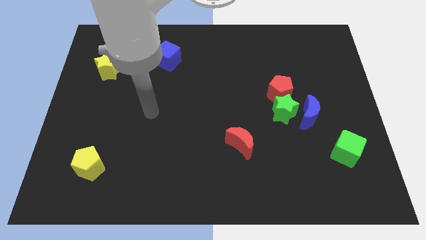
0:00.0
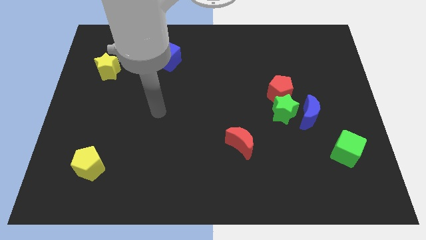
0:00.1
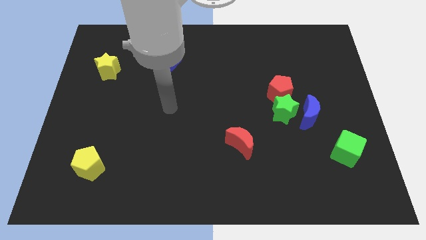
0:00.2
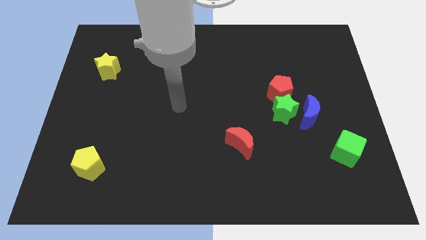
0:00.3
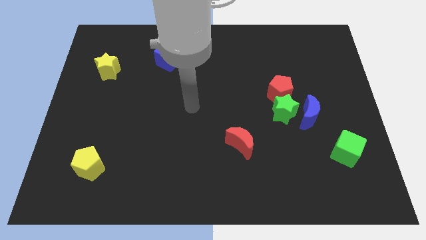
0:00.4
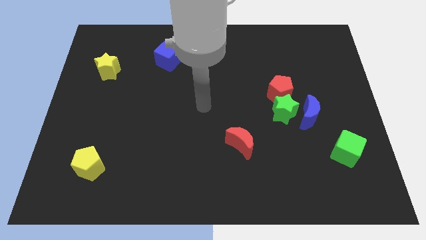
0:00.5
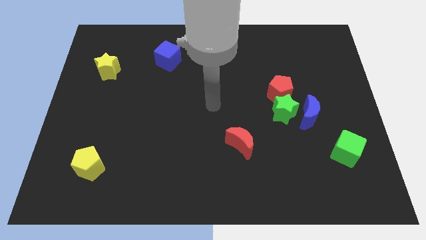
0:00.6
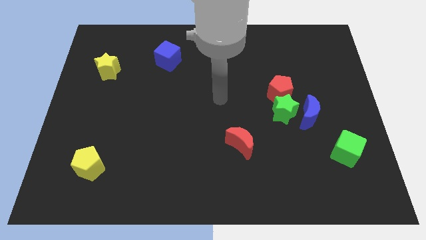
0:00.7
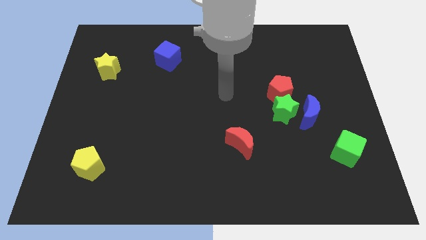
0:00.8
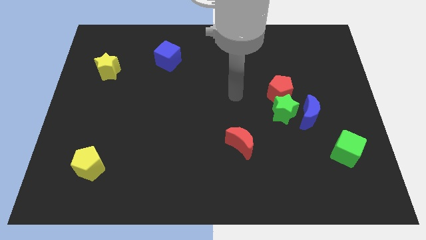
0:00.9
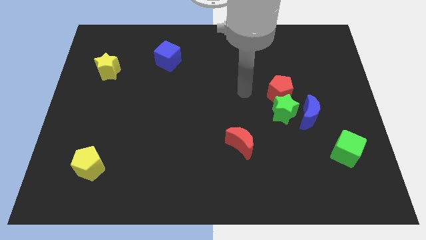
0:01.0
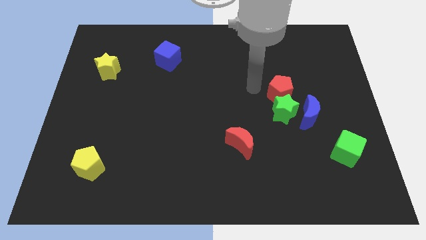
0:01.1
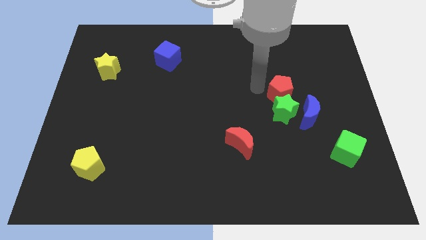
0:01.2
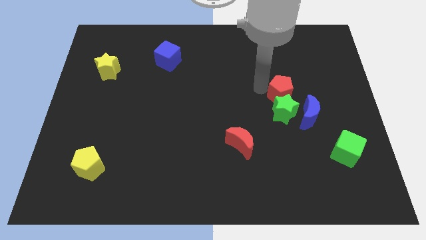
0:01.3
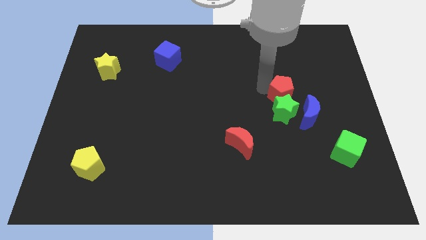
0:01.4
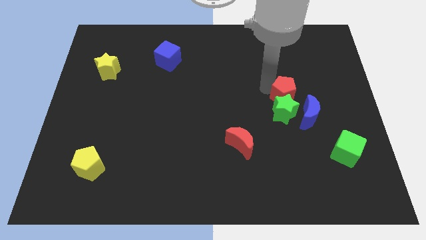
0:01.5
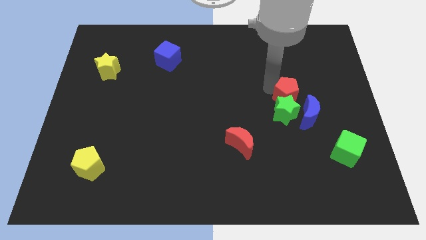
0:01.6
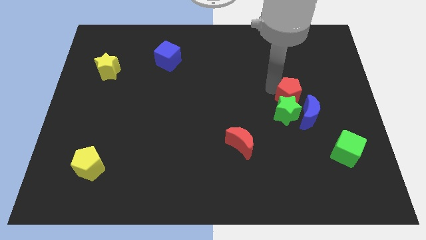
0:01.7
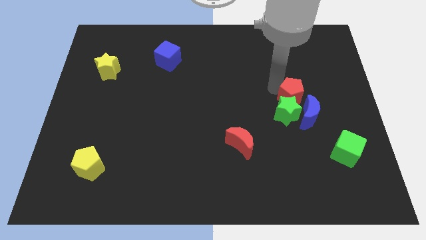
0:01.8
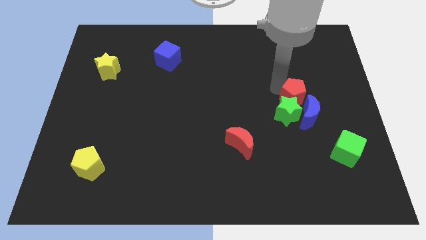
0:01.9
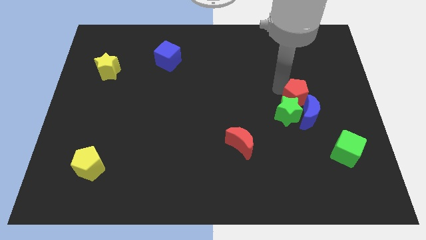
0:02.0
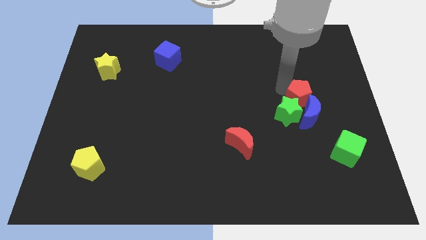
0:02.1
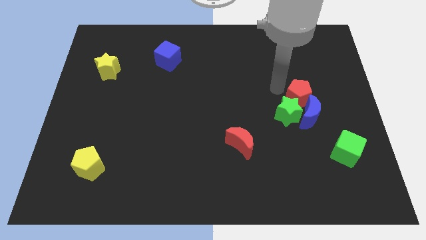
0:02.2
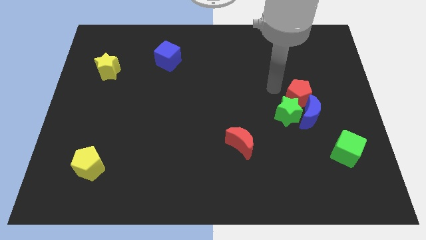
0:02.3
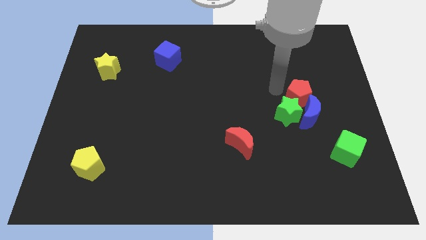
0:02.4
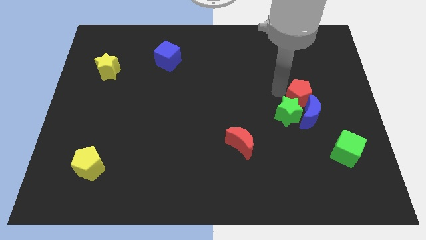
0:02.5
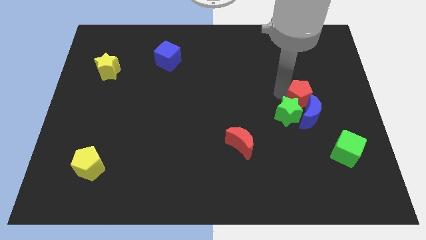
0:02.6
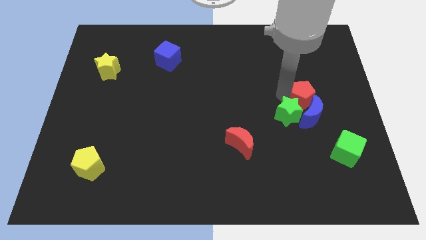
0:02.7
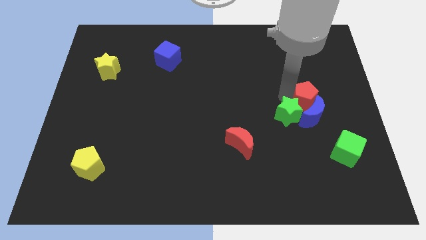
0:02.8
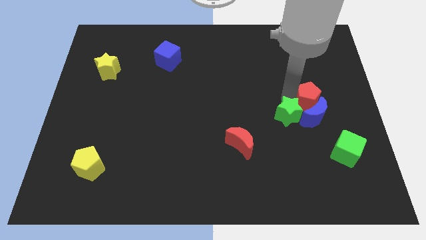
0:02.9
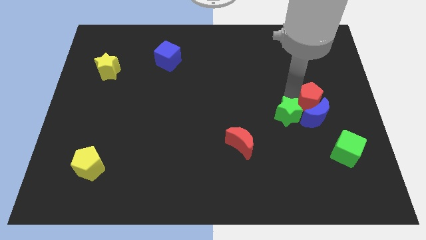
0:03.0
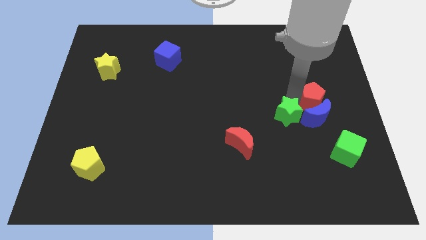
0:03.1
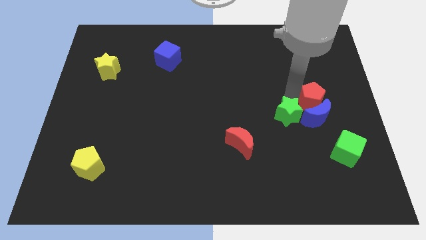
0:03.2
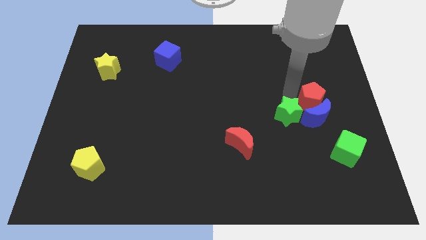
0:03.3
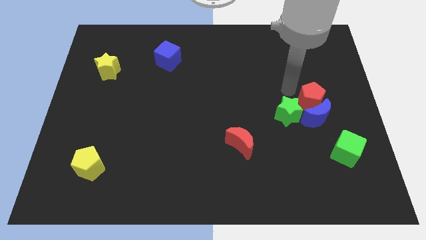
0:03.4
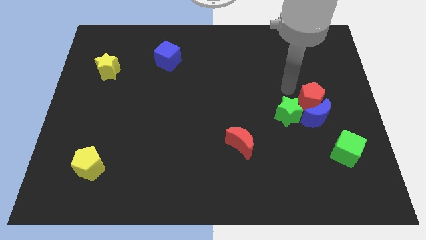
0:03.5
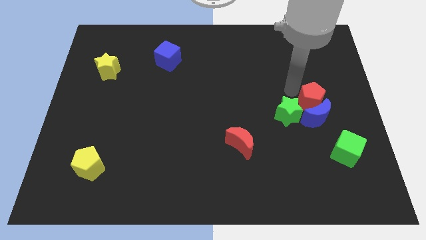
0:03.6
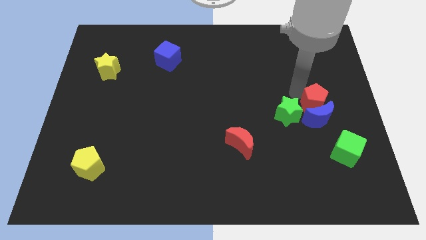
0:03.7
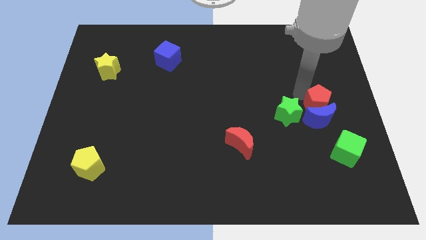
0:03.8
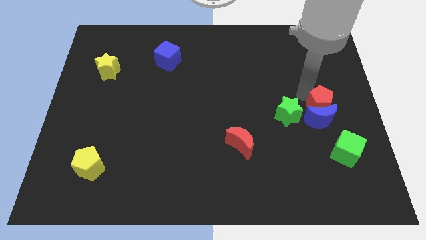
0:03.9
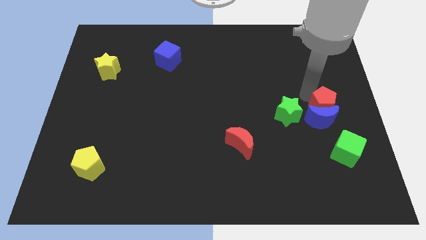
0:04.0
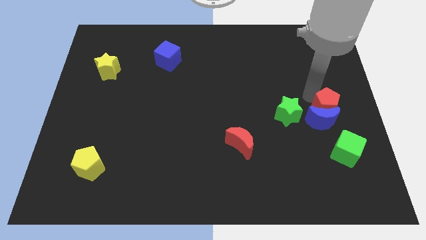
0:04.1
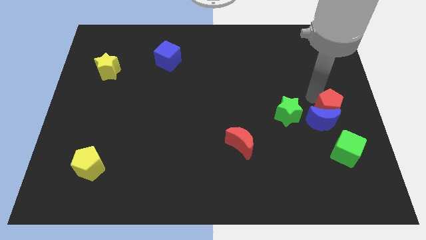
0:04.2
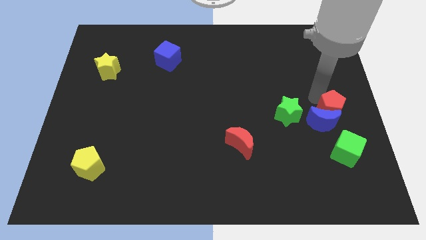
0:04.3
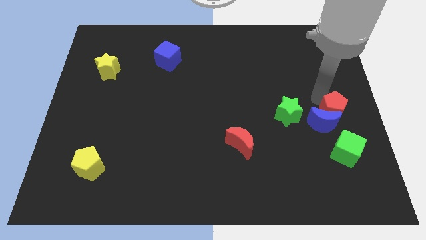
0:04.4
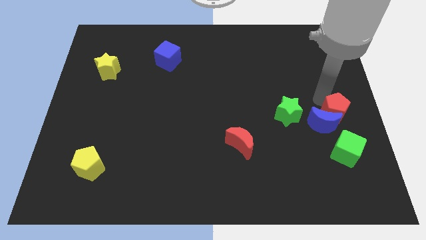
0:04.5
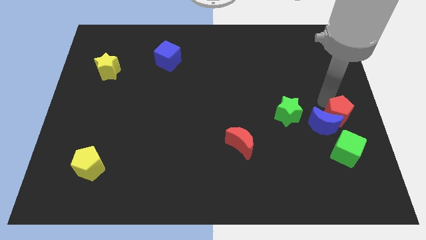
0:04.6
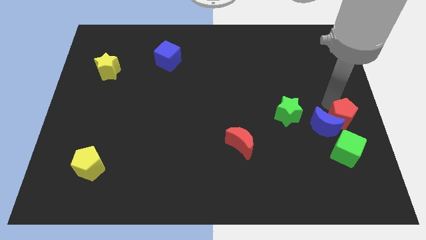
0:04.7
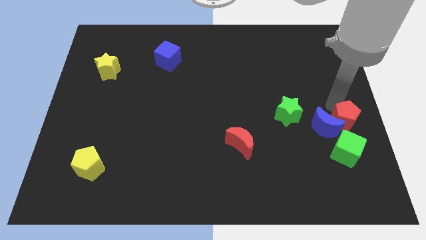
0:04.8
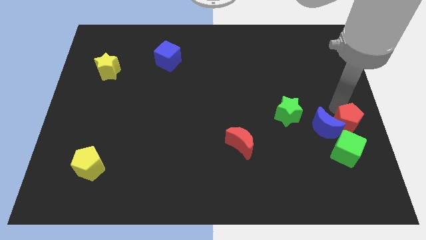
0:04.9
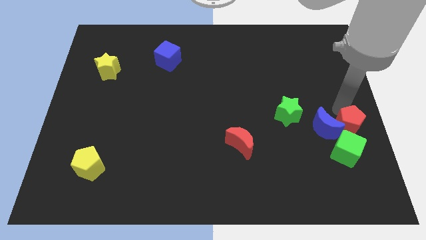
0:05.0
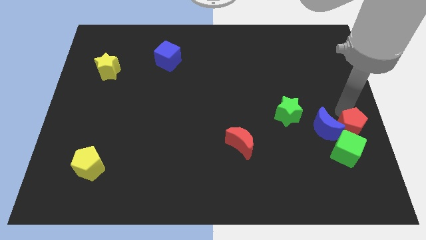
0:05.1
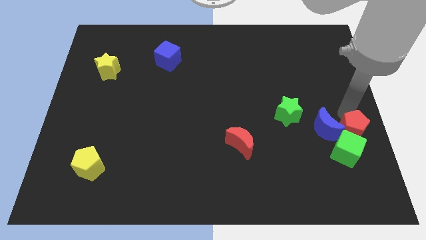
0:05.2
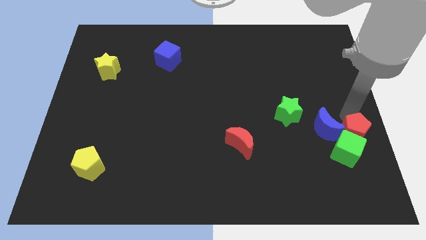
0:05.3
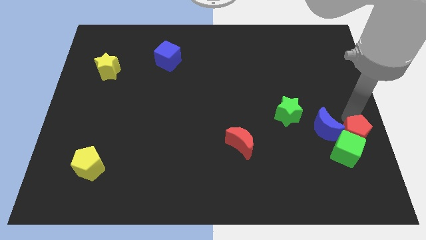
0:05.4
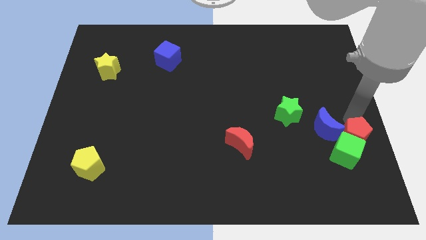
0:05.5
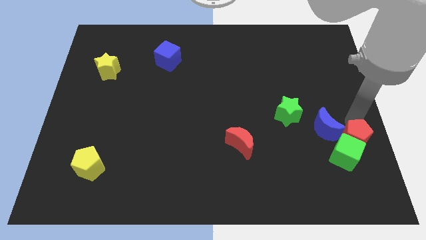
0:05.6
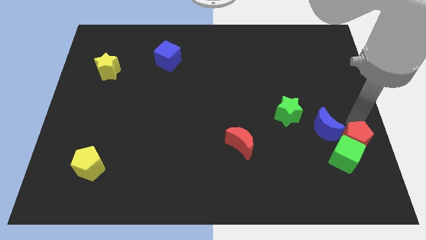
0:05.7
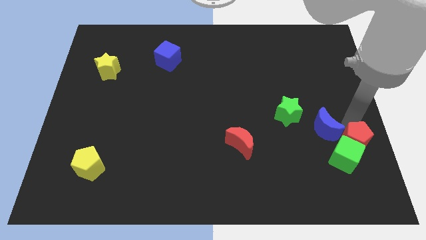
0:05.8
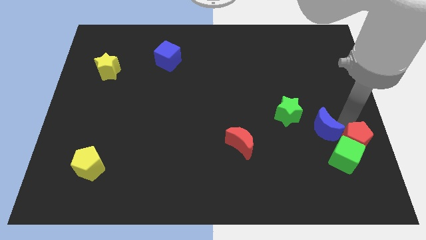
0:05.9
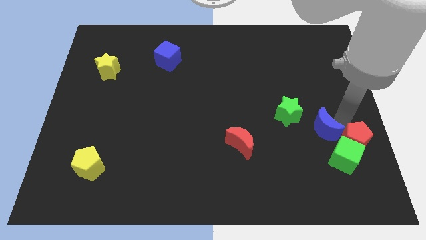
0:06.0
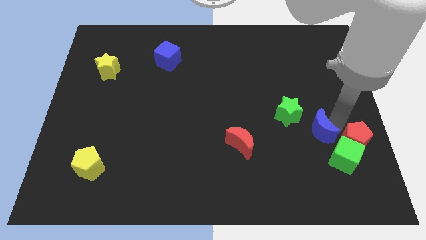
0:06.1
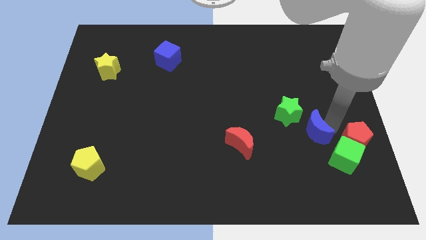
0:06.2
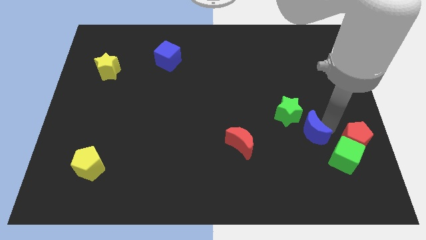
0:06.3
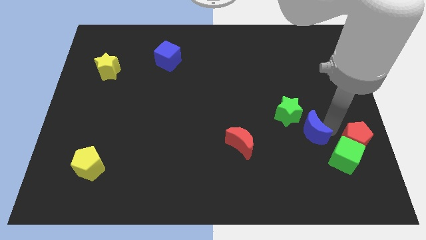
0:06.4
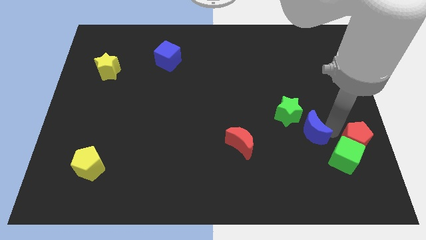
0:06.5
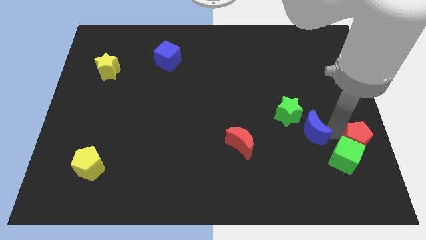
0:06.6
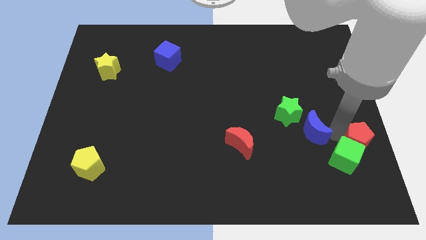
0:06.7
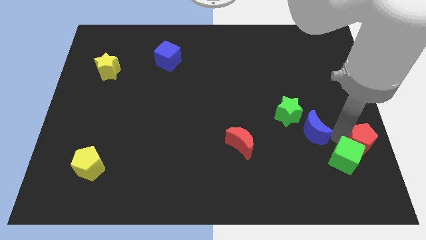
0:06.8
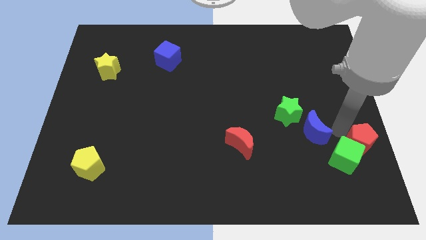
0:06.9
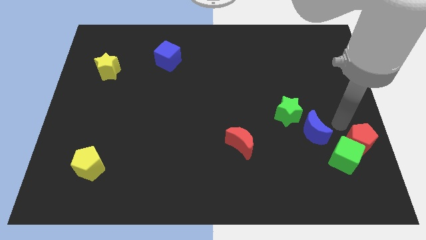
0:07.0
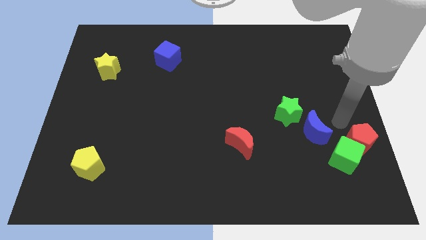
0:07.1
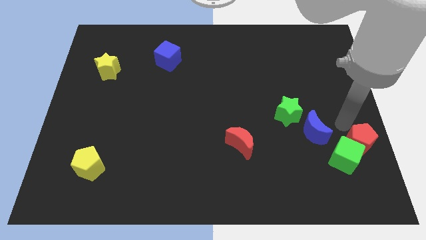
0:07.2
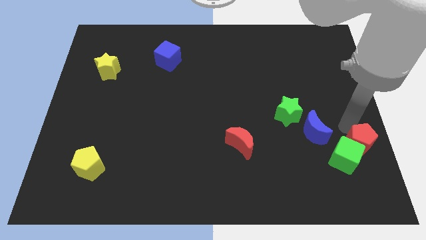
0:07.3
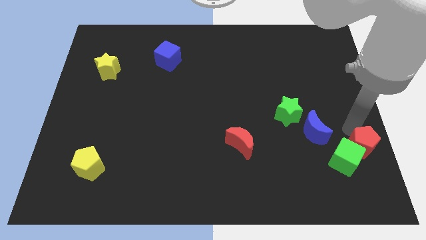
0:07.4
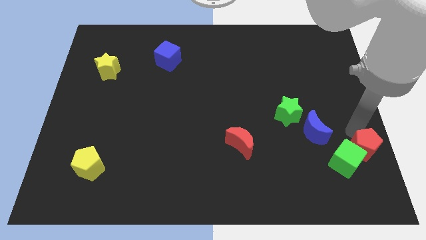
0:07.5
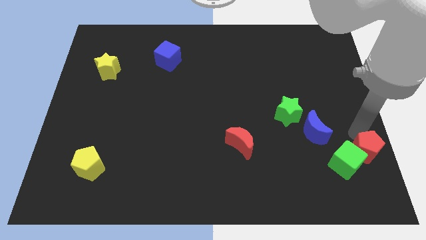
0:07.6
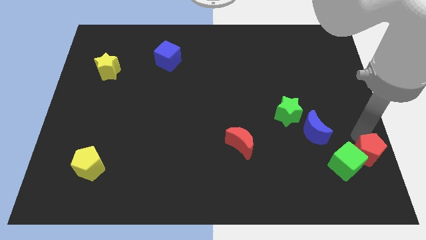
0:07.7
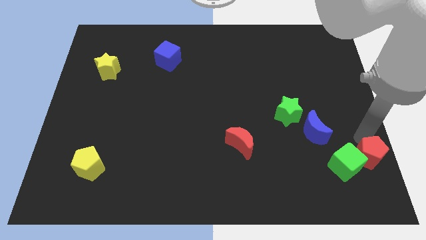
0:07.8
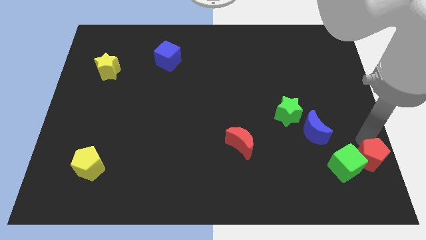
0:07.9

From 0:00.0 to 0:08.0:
slide the red pentagon to the bottom right of the board
